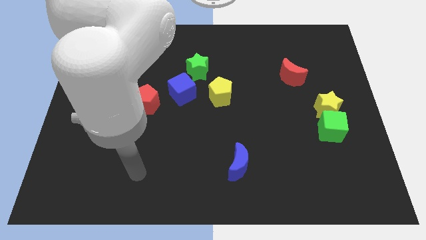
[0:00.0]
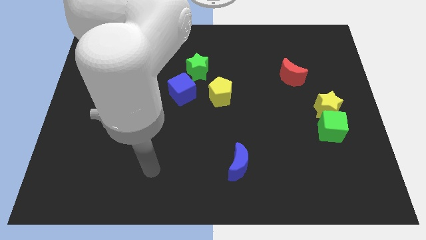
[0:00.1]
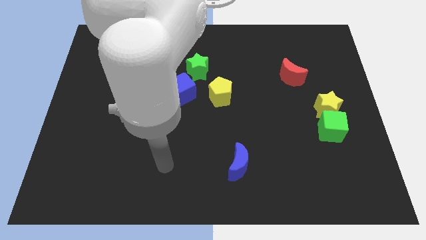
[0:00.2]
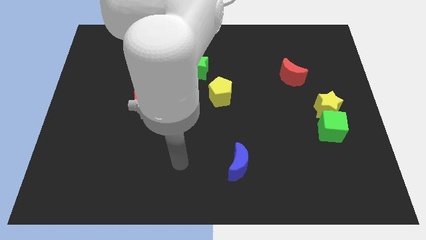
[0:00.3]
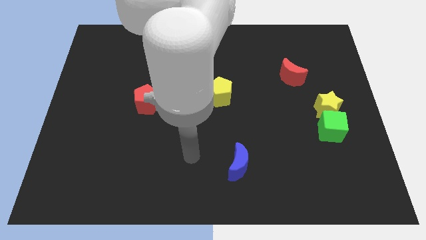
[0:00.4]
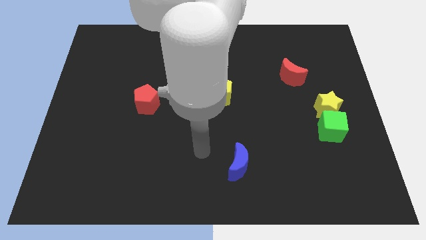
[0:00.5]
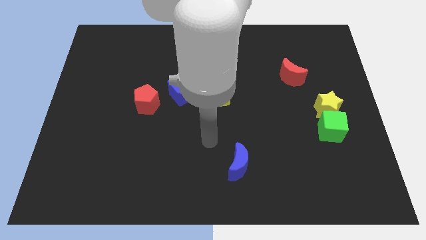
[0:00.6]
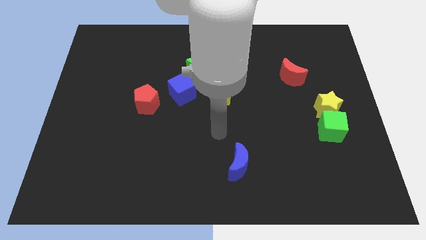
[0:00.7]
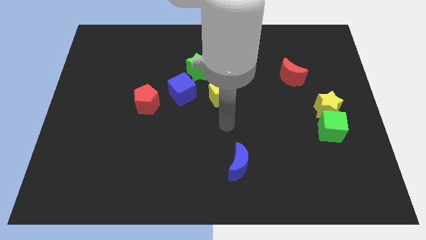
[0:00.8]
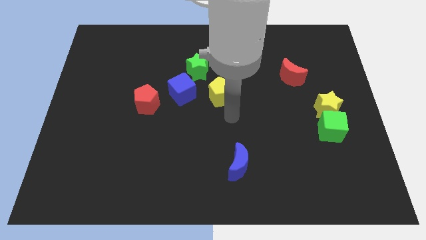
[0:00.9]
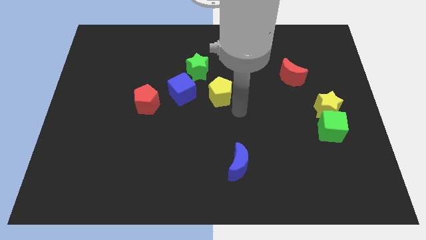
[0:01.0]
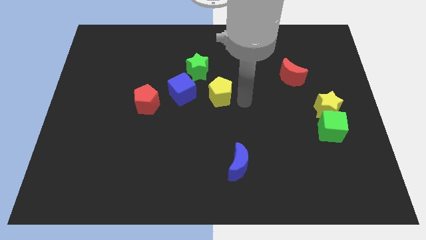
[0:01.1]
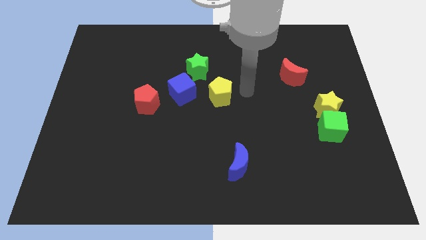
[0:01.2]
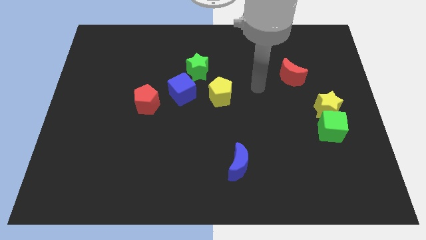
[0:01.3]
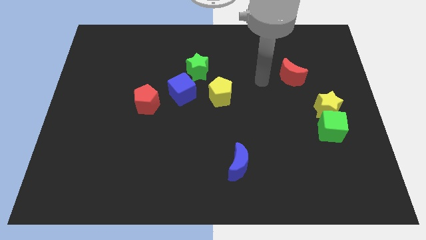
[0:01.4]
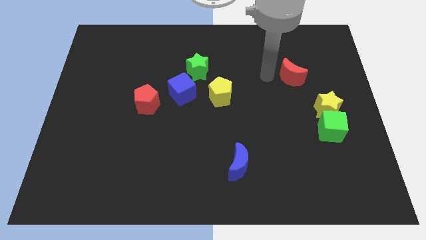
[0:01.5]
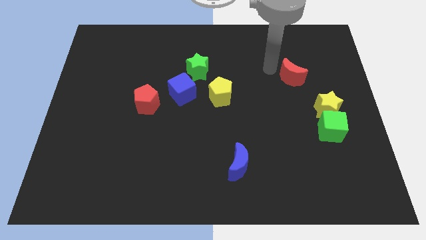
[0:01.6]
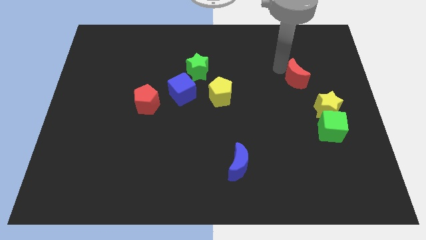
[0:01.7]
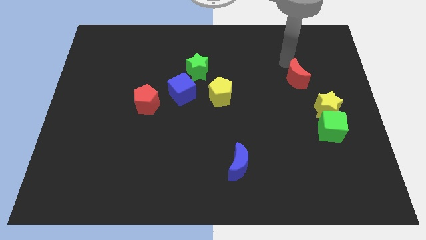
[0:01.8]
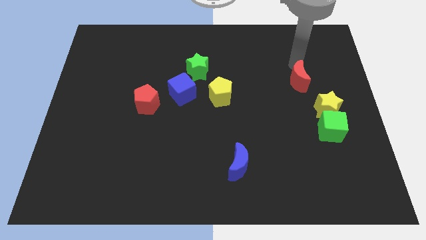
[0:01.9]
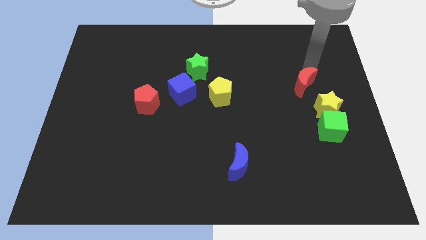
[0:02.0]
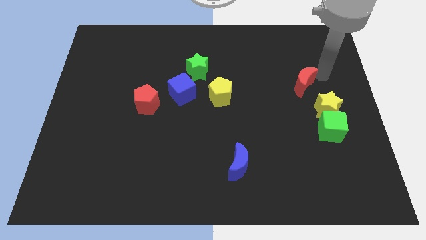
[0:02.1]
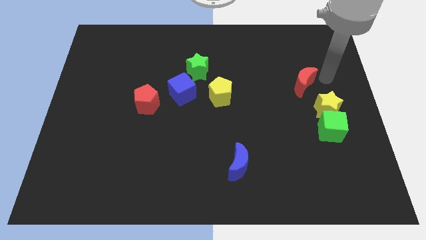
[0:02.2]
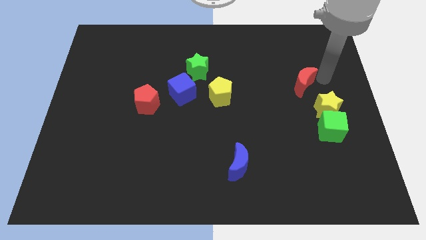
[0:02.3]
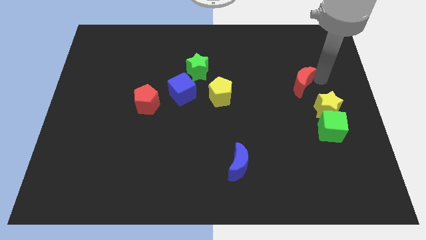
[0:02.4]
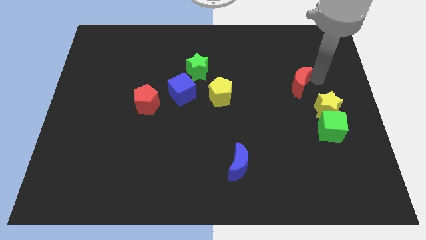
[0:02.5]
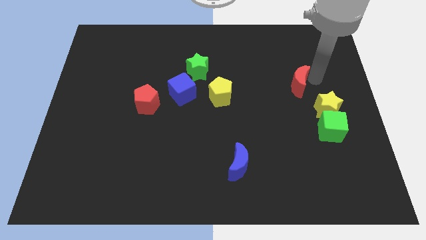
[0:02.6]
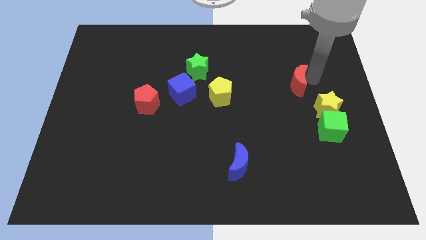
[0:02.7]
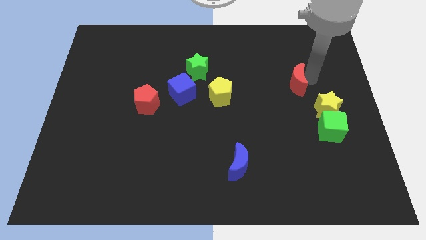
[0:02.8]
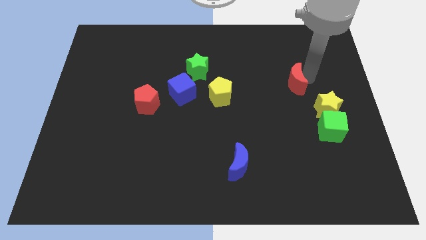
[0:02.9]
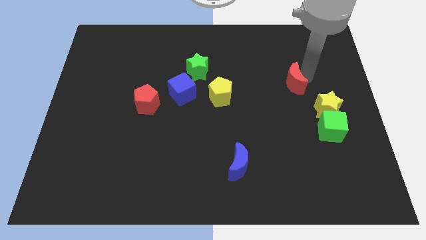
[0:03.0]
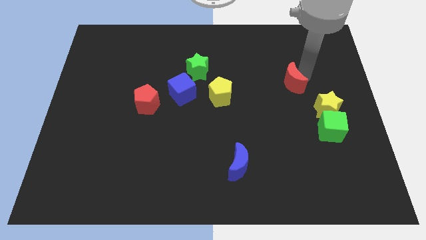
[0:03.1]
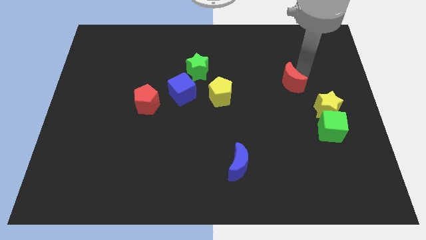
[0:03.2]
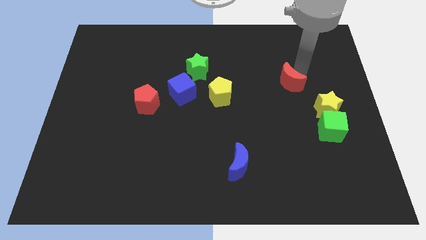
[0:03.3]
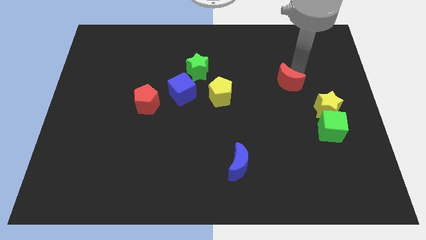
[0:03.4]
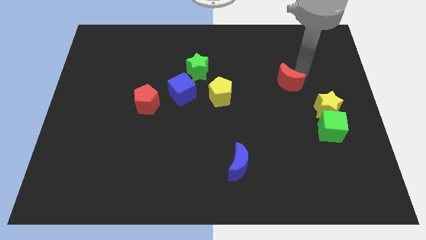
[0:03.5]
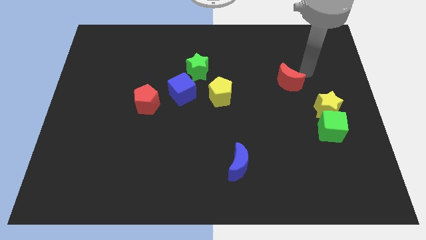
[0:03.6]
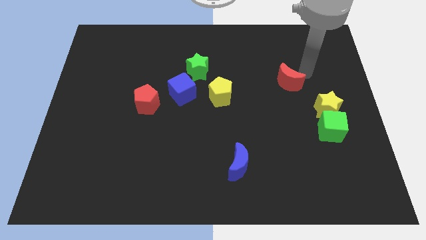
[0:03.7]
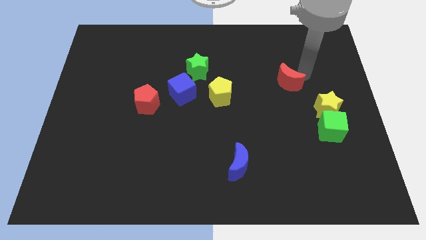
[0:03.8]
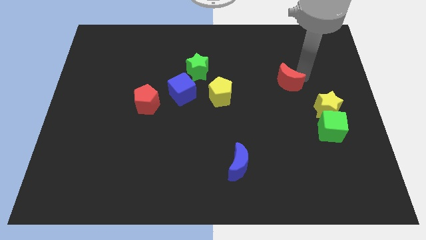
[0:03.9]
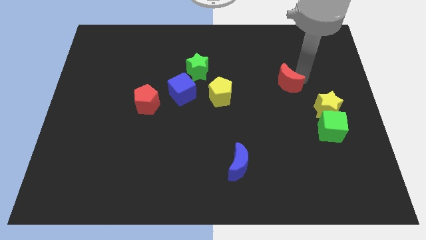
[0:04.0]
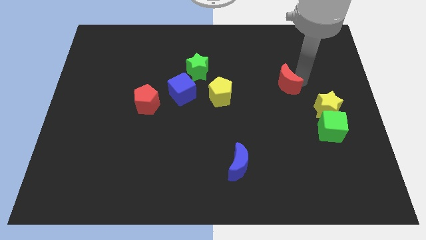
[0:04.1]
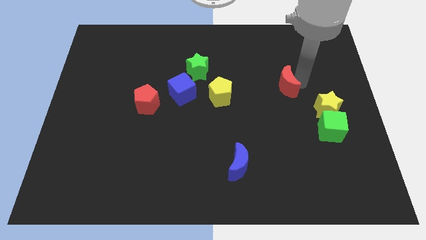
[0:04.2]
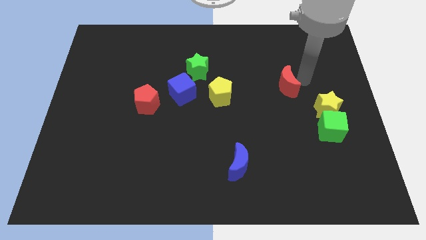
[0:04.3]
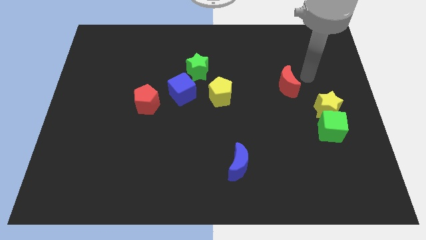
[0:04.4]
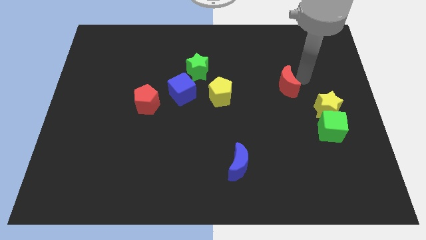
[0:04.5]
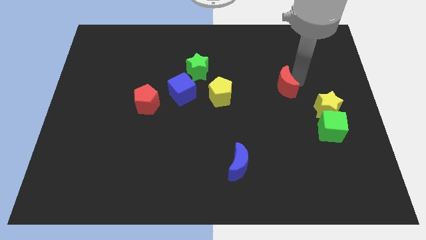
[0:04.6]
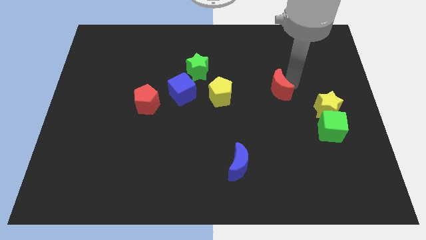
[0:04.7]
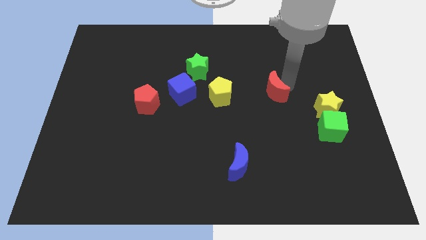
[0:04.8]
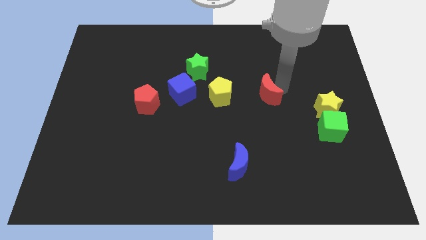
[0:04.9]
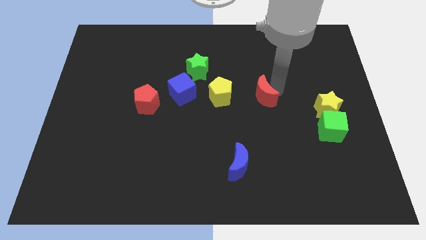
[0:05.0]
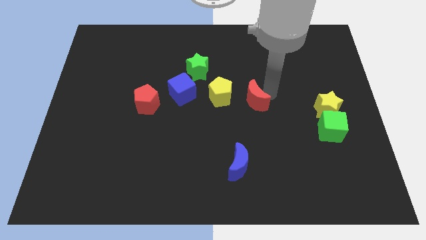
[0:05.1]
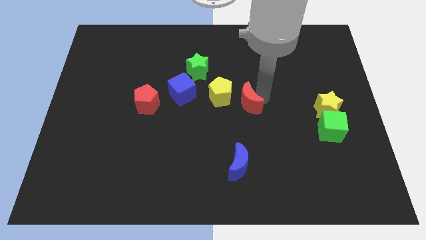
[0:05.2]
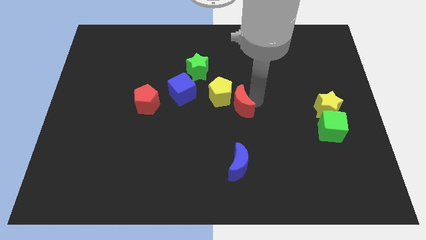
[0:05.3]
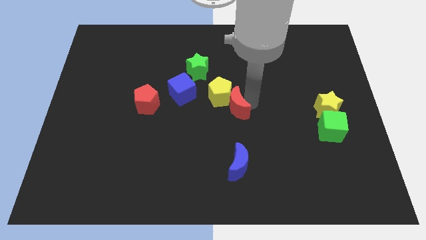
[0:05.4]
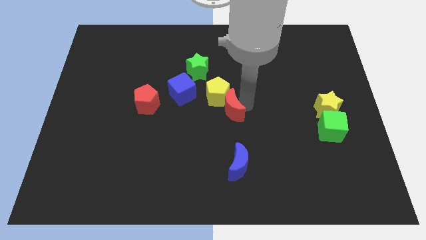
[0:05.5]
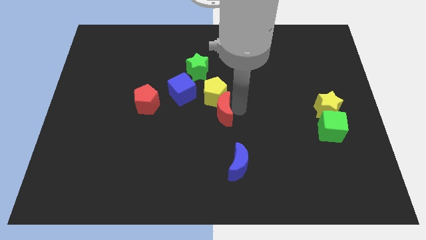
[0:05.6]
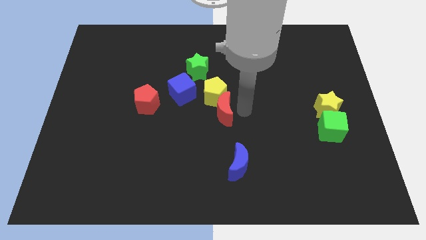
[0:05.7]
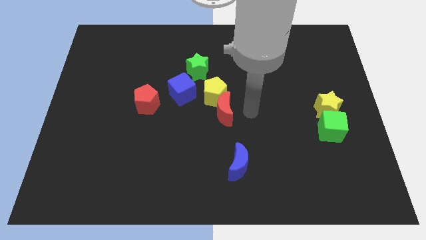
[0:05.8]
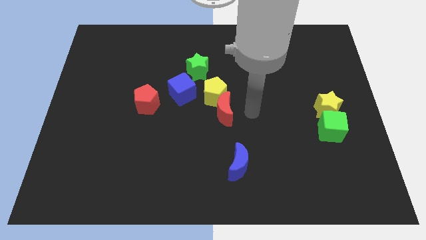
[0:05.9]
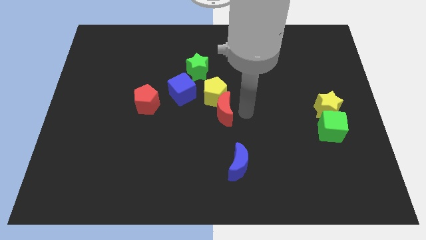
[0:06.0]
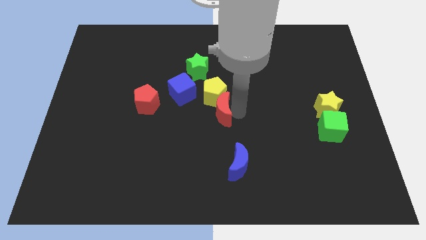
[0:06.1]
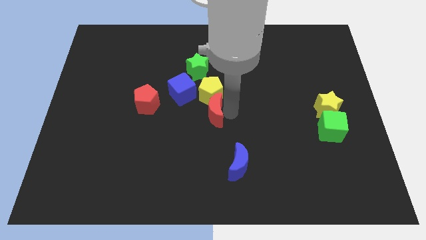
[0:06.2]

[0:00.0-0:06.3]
push the red moon diagonally down and to the left of the yellow pentagon

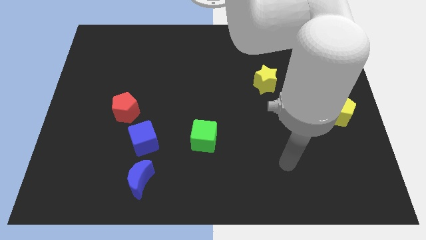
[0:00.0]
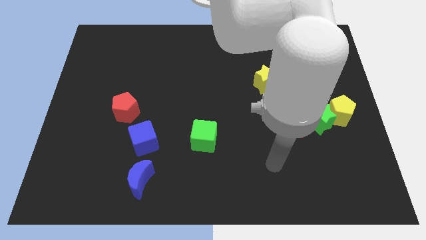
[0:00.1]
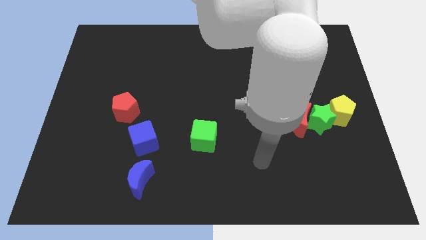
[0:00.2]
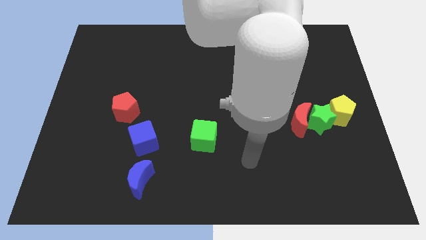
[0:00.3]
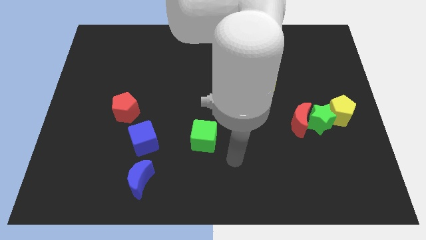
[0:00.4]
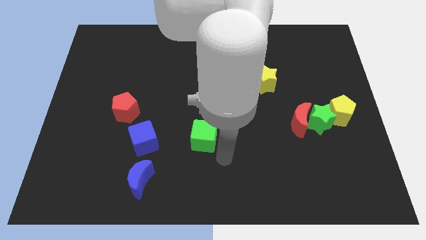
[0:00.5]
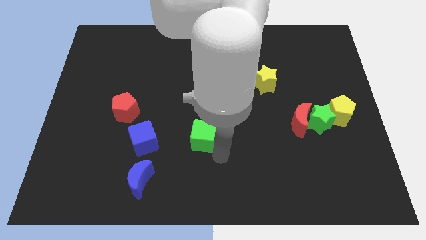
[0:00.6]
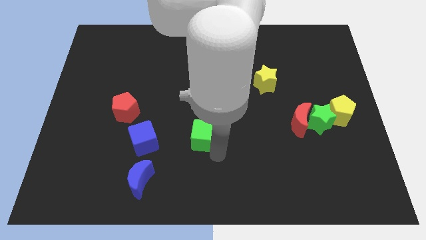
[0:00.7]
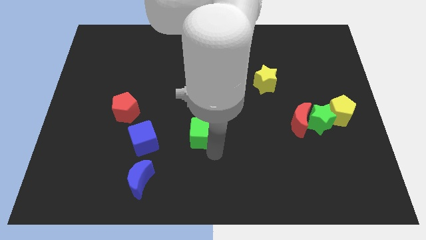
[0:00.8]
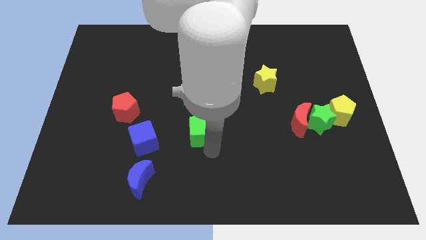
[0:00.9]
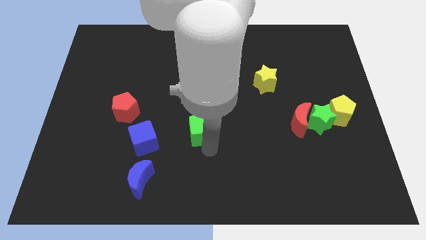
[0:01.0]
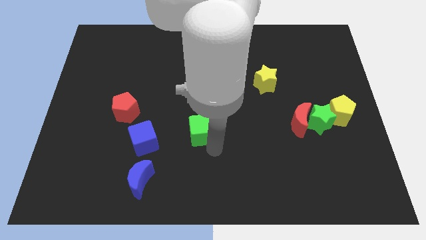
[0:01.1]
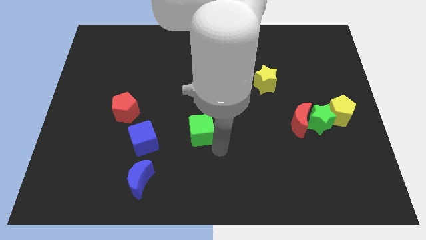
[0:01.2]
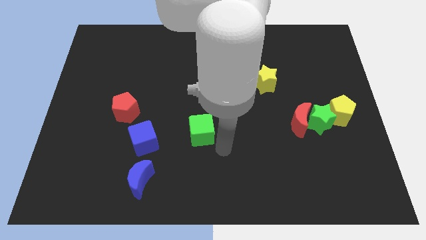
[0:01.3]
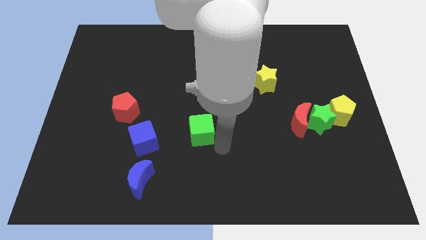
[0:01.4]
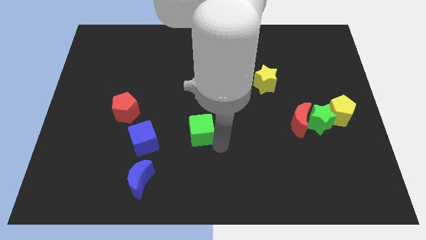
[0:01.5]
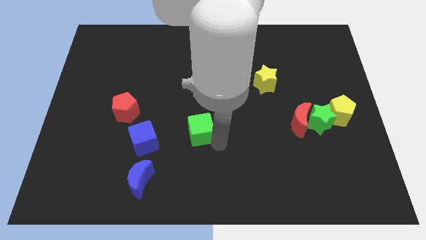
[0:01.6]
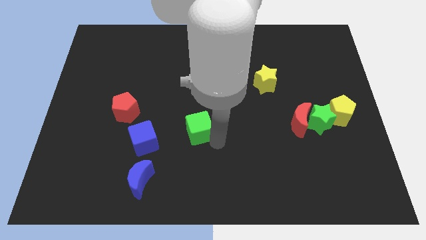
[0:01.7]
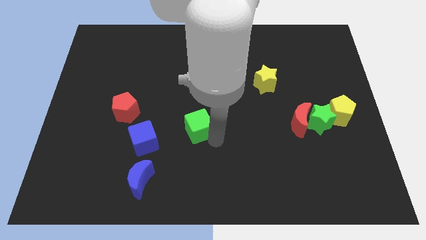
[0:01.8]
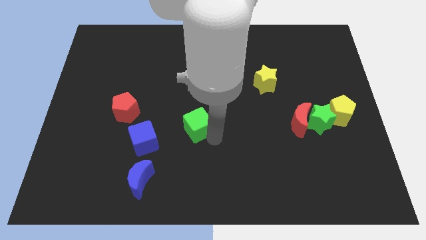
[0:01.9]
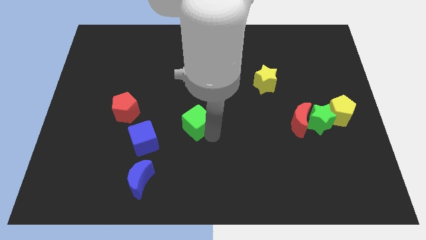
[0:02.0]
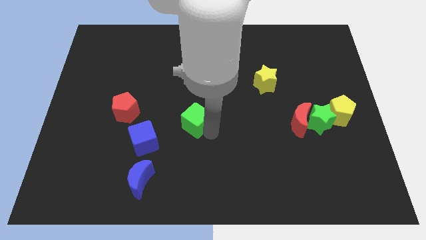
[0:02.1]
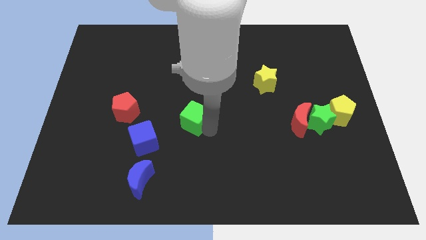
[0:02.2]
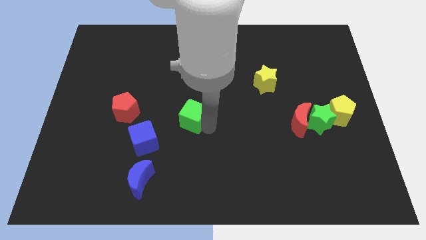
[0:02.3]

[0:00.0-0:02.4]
push the green cube to the right of the red pentagon
